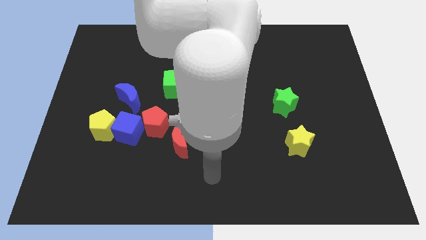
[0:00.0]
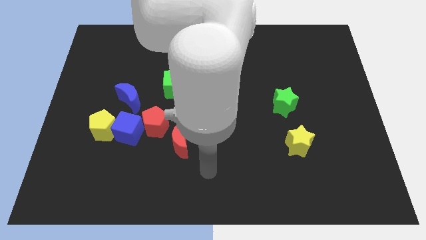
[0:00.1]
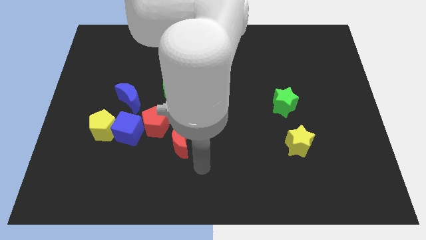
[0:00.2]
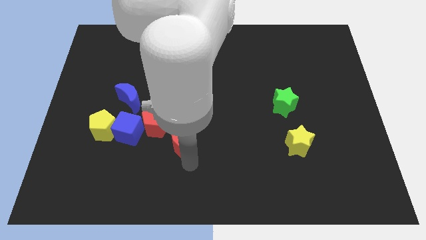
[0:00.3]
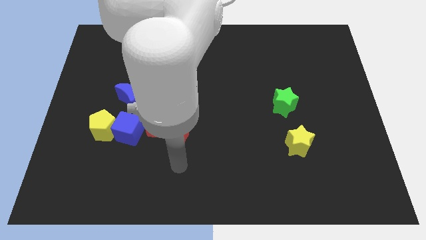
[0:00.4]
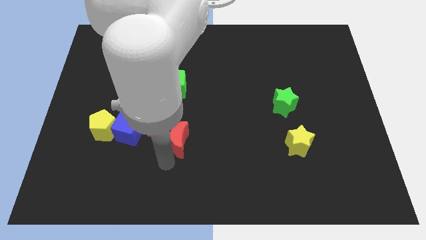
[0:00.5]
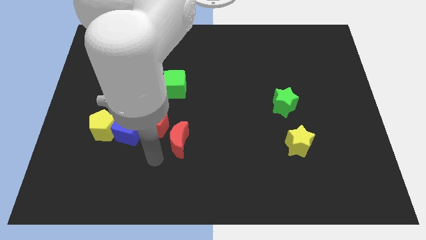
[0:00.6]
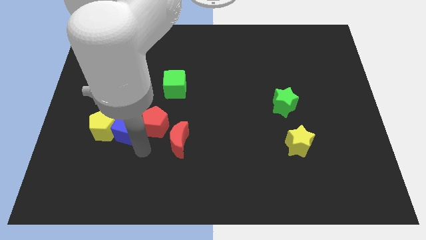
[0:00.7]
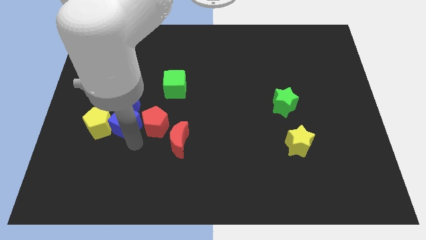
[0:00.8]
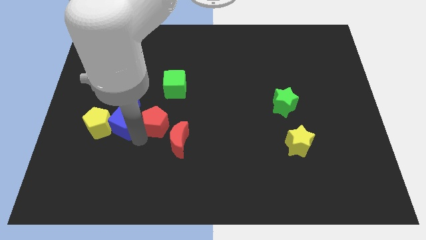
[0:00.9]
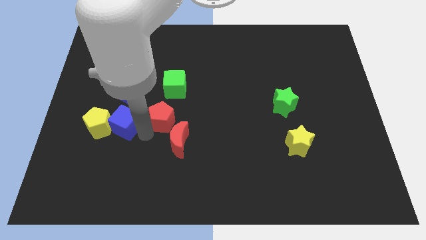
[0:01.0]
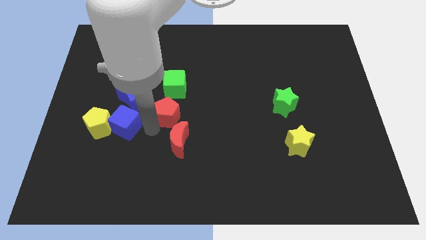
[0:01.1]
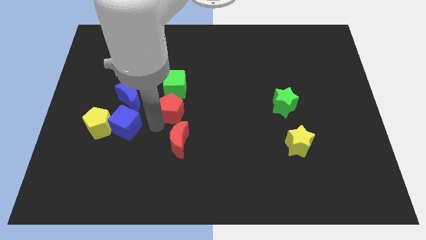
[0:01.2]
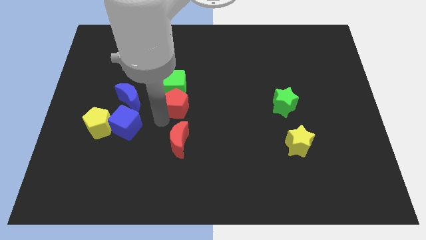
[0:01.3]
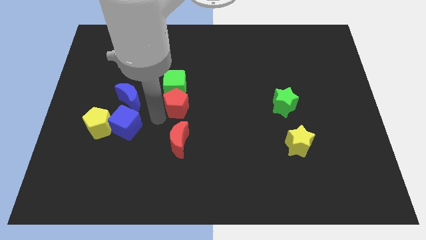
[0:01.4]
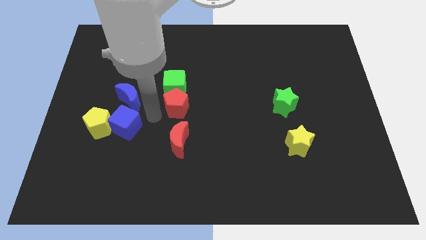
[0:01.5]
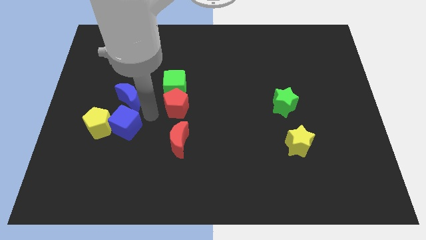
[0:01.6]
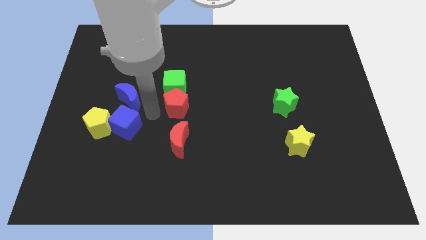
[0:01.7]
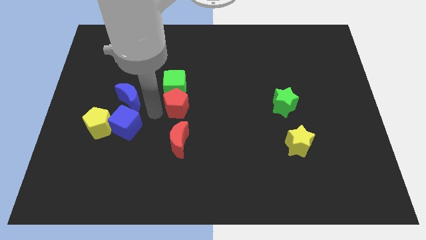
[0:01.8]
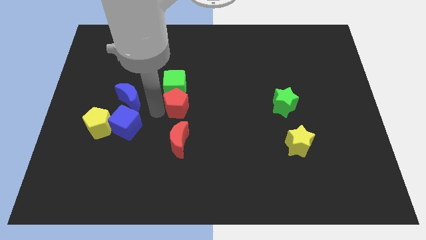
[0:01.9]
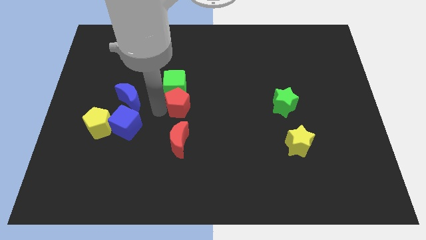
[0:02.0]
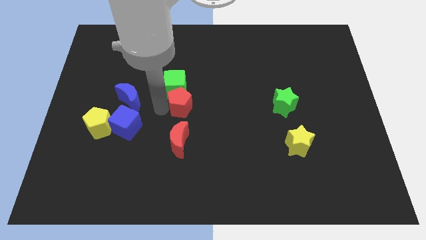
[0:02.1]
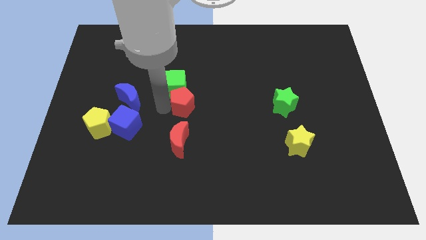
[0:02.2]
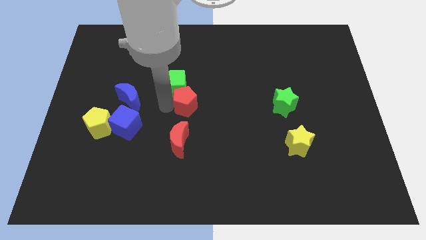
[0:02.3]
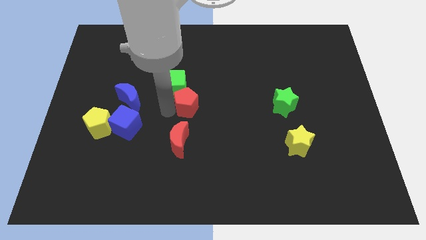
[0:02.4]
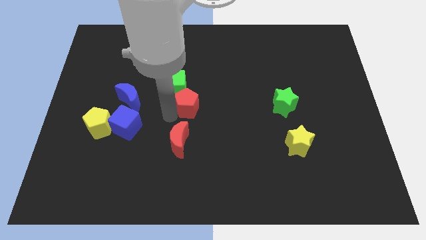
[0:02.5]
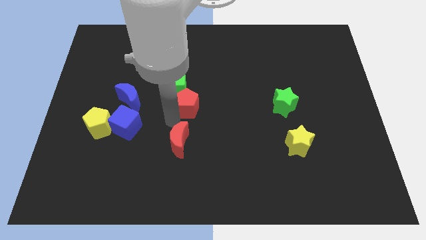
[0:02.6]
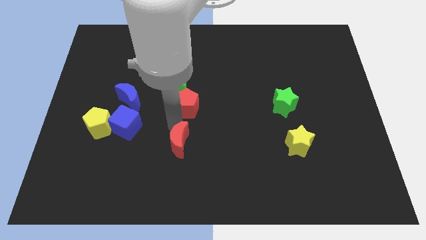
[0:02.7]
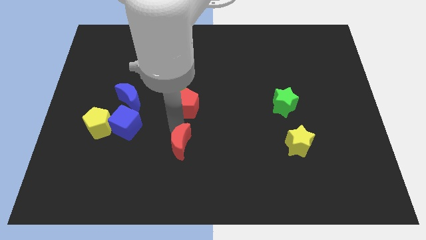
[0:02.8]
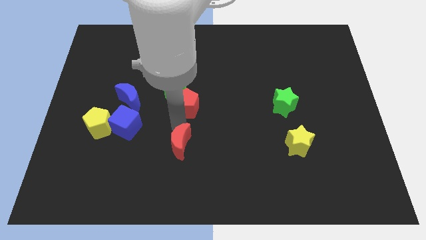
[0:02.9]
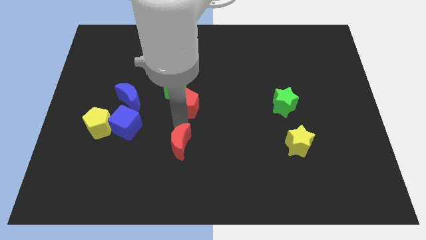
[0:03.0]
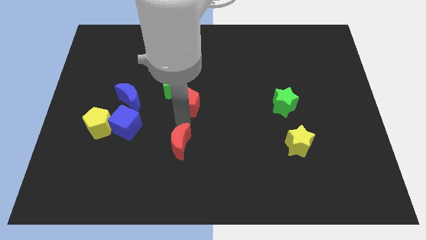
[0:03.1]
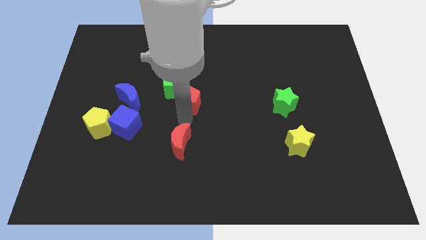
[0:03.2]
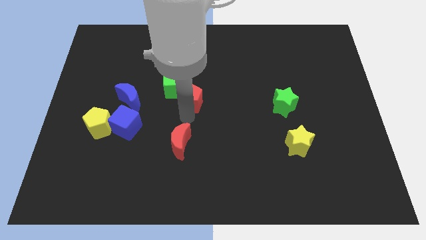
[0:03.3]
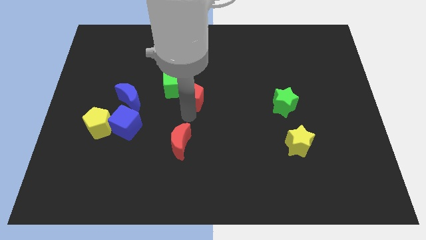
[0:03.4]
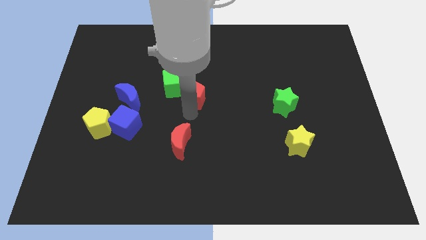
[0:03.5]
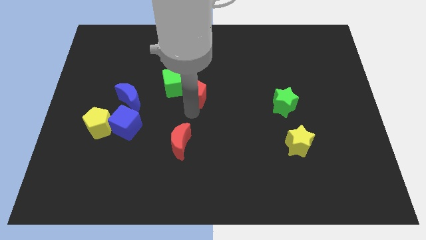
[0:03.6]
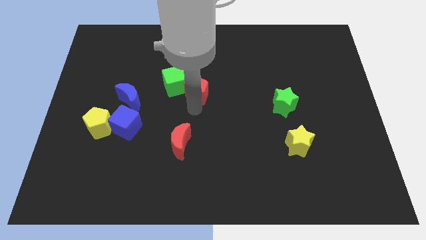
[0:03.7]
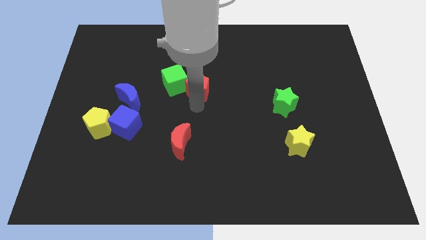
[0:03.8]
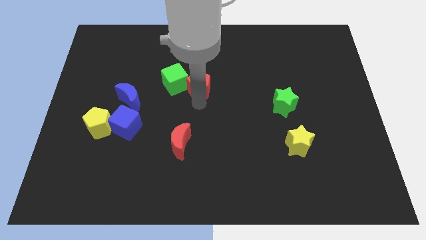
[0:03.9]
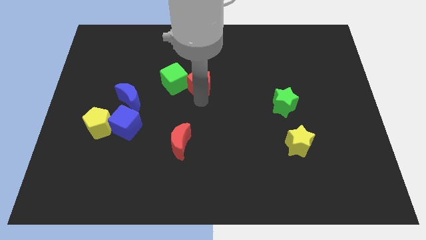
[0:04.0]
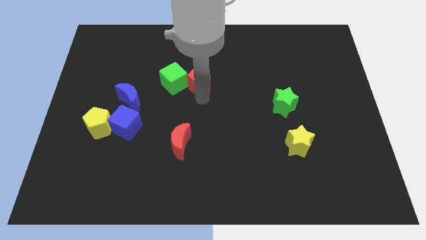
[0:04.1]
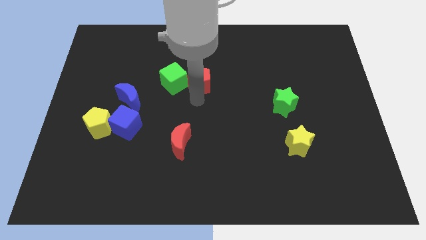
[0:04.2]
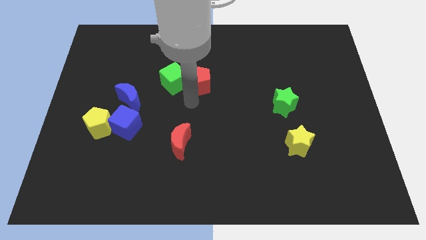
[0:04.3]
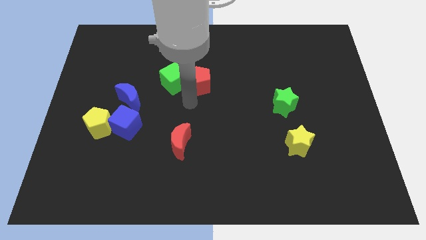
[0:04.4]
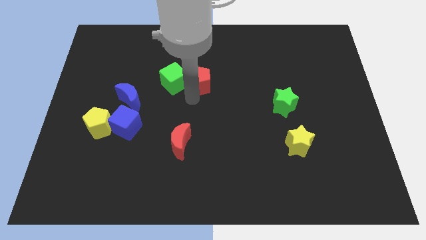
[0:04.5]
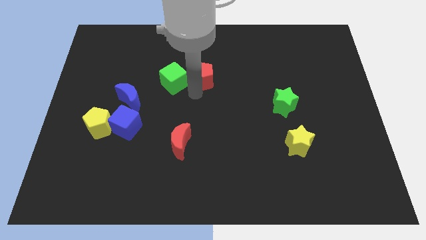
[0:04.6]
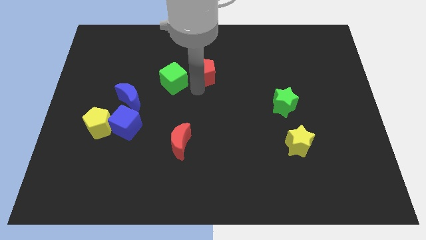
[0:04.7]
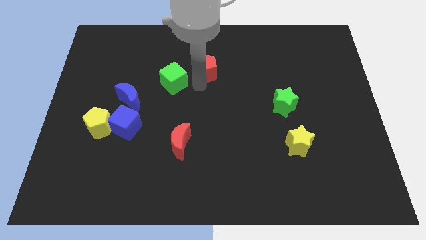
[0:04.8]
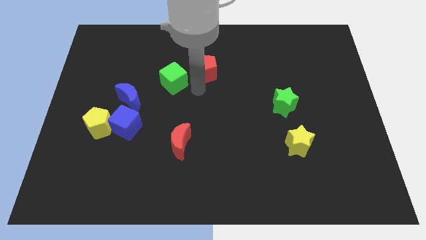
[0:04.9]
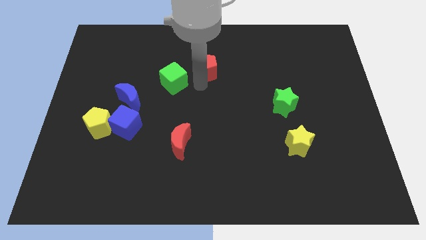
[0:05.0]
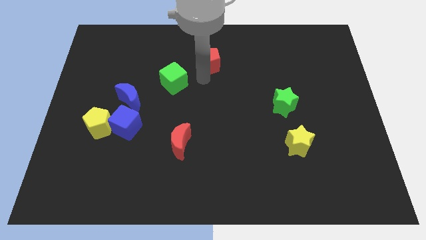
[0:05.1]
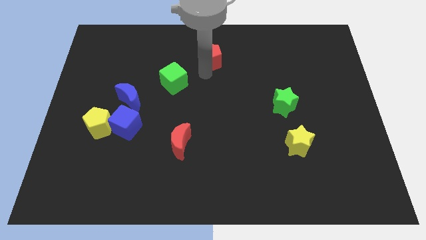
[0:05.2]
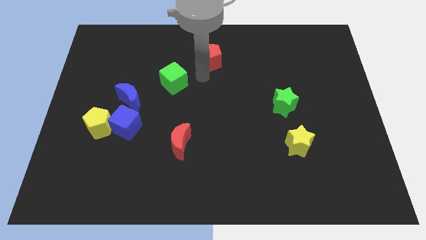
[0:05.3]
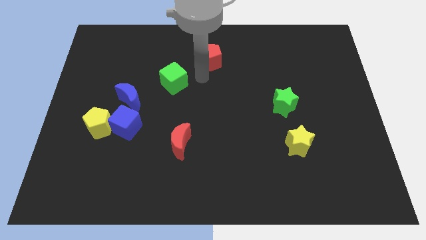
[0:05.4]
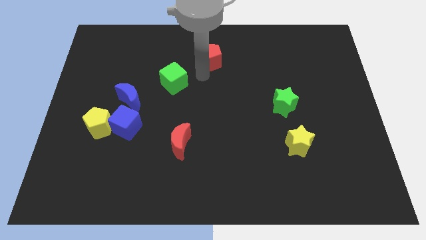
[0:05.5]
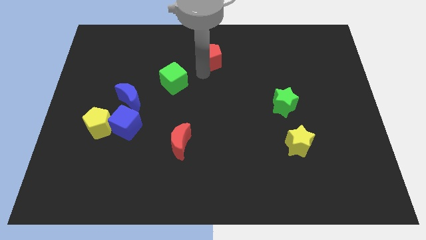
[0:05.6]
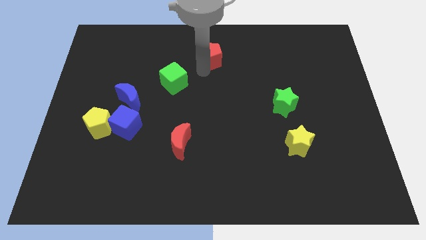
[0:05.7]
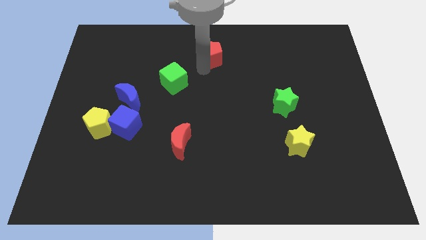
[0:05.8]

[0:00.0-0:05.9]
slide the red pentagon to the towards your base
